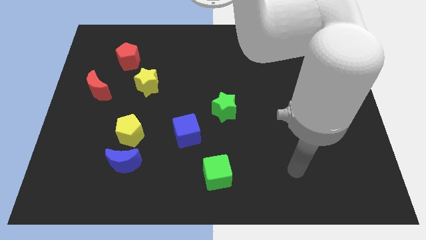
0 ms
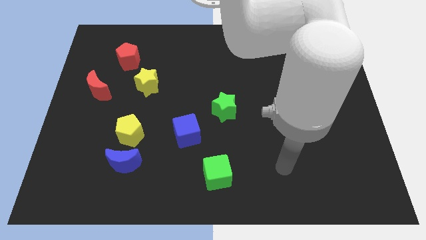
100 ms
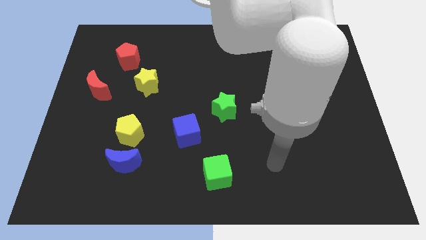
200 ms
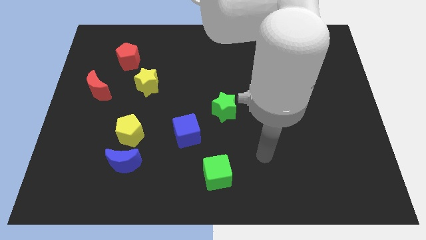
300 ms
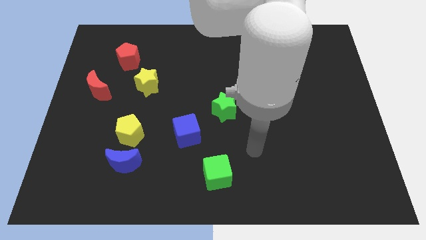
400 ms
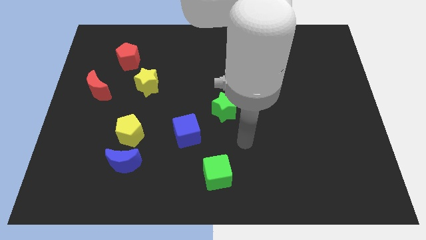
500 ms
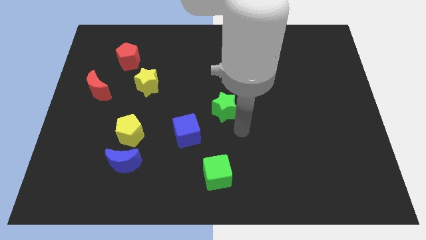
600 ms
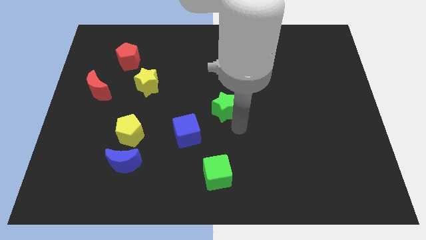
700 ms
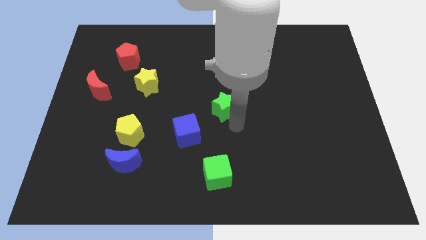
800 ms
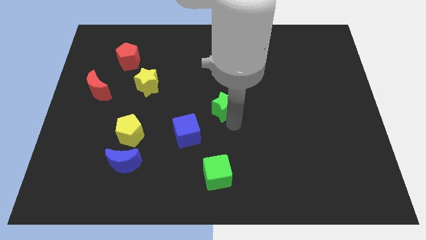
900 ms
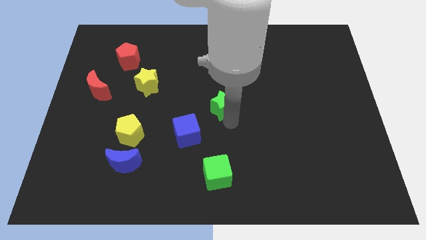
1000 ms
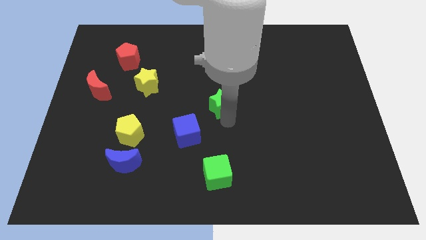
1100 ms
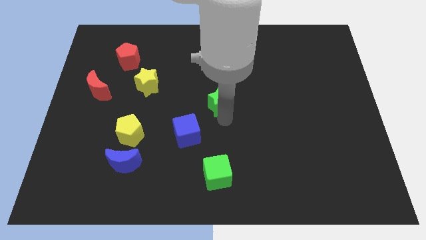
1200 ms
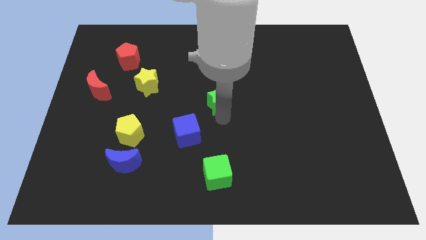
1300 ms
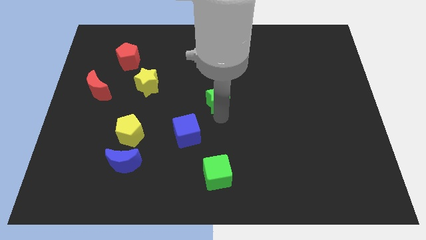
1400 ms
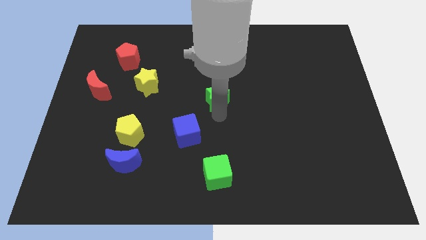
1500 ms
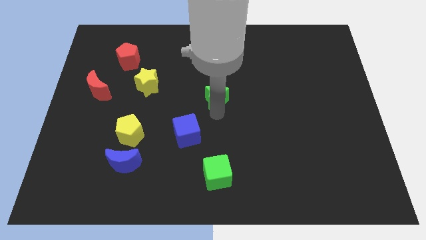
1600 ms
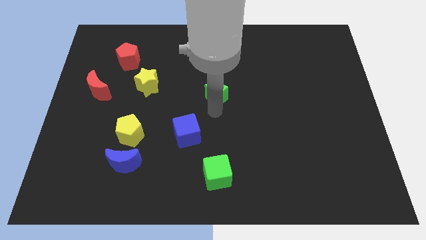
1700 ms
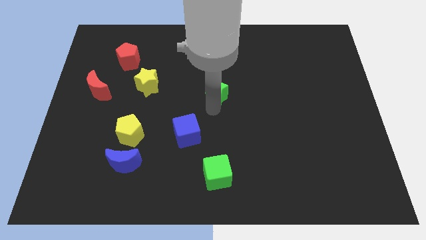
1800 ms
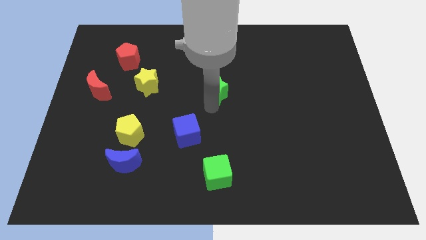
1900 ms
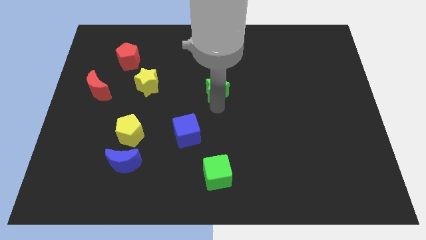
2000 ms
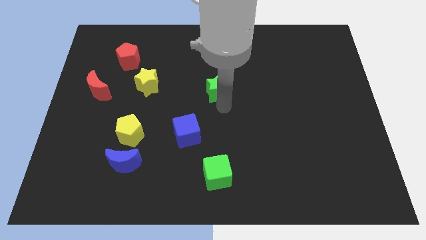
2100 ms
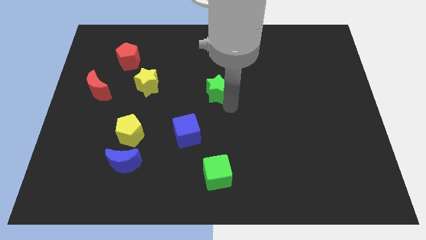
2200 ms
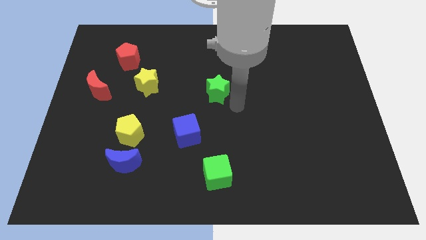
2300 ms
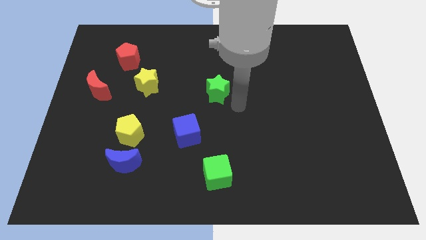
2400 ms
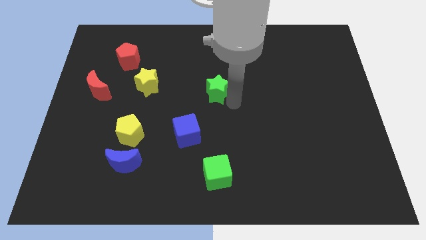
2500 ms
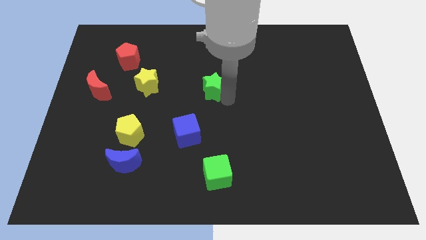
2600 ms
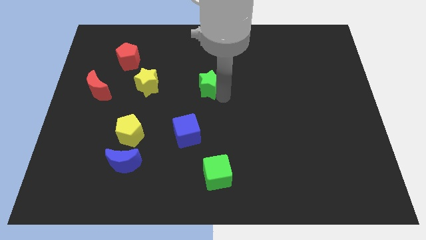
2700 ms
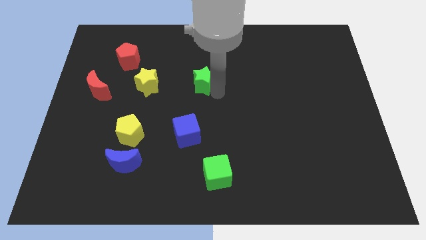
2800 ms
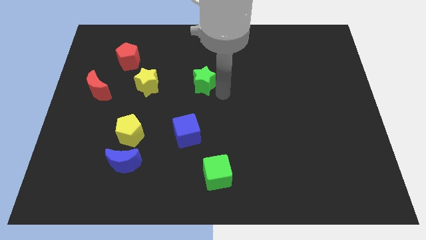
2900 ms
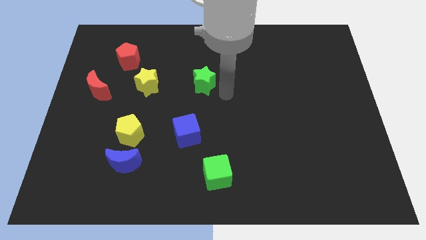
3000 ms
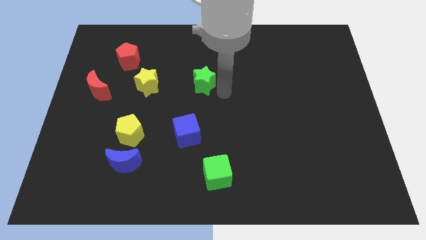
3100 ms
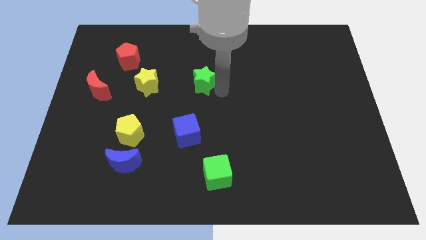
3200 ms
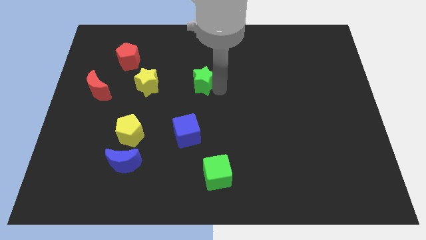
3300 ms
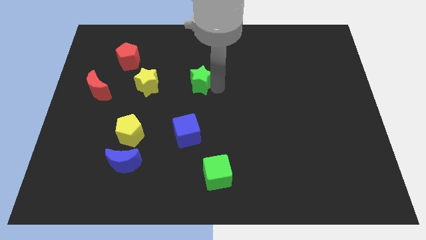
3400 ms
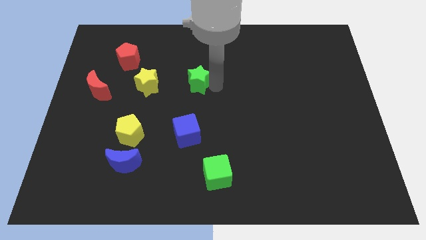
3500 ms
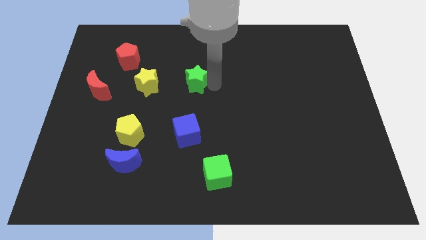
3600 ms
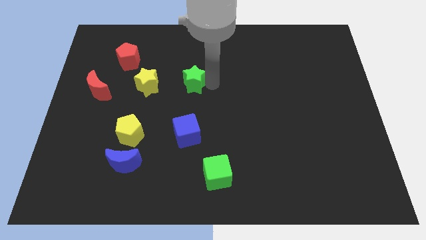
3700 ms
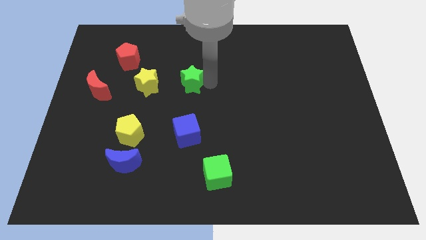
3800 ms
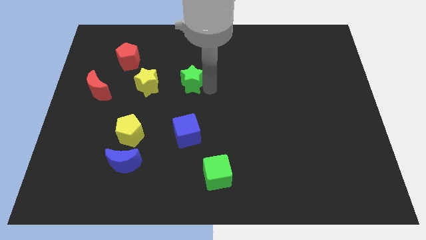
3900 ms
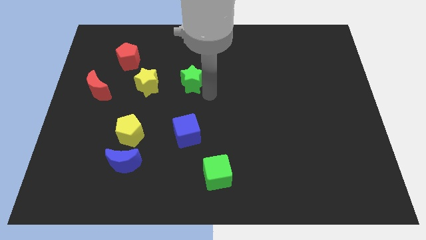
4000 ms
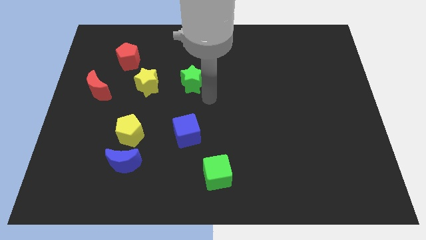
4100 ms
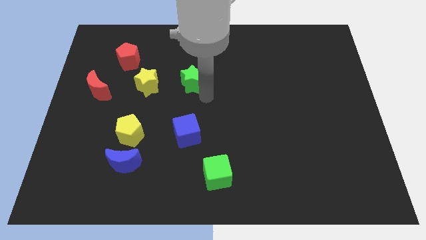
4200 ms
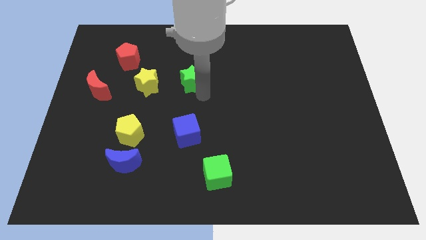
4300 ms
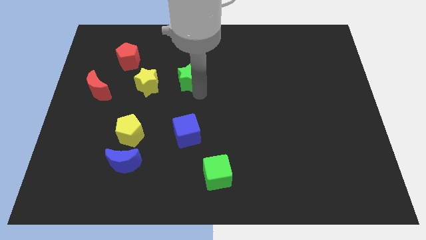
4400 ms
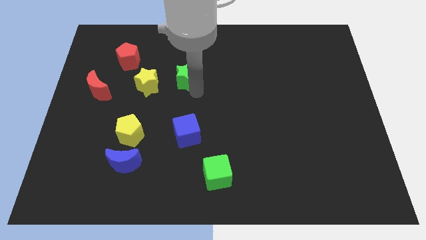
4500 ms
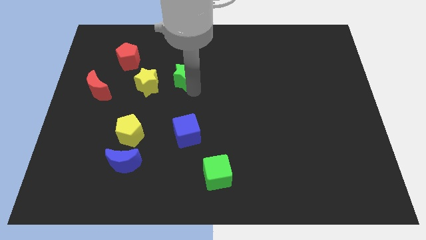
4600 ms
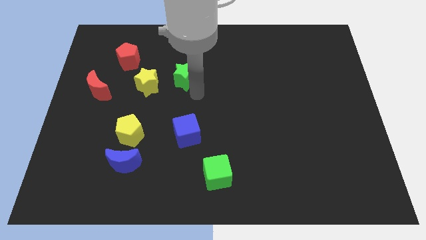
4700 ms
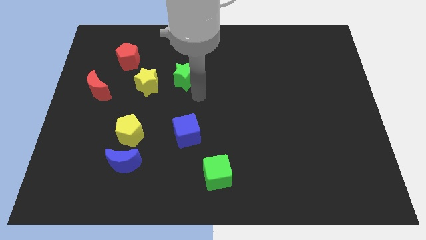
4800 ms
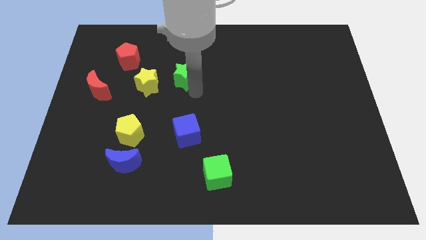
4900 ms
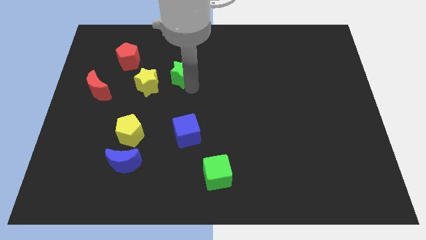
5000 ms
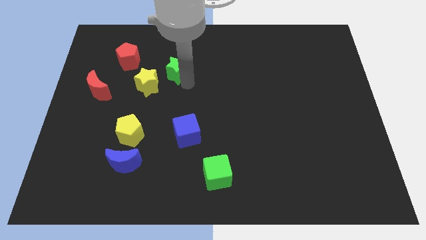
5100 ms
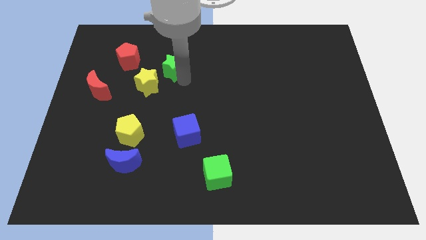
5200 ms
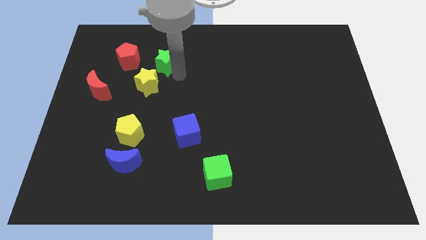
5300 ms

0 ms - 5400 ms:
push the green star to the top side of the yellow star

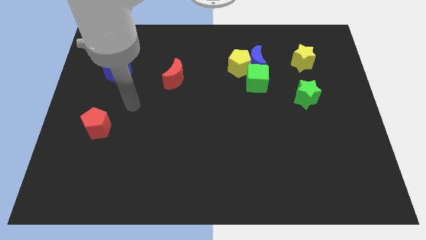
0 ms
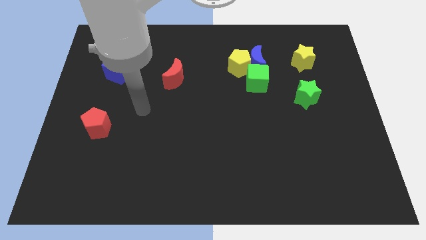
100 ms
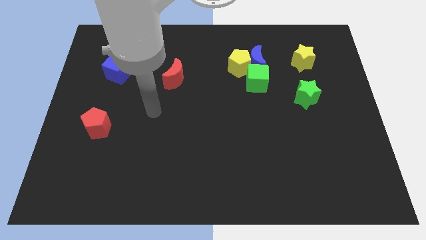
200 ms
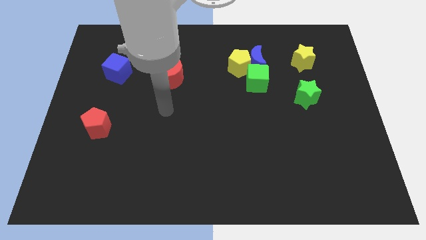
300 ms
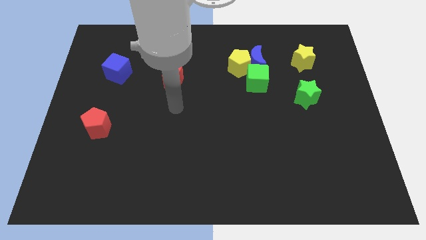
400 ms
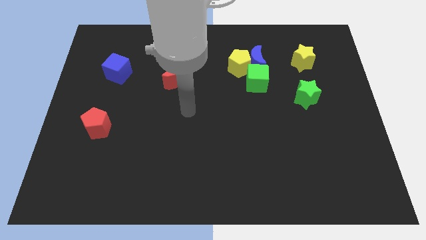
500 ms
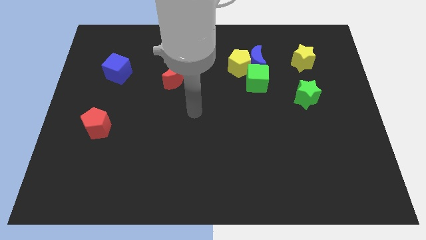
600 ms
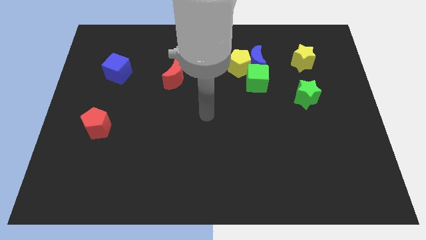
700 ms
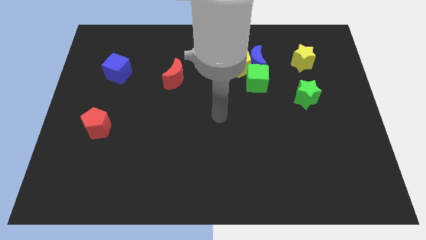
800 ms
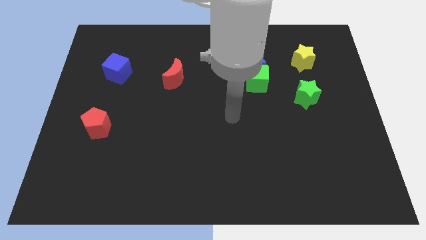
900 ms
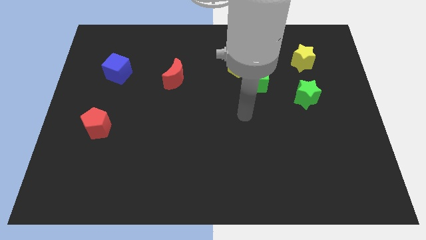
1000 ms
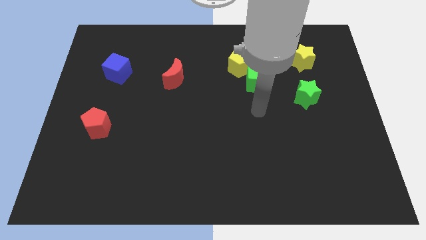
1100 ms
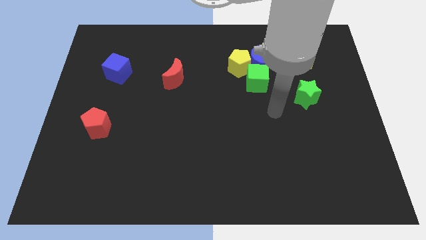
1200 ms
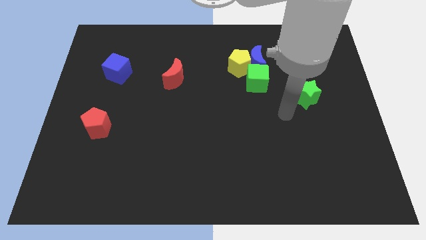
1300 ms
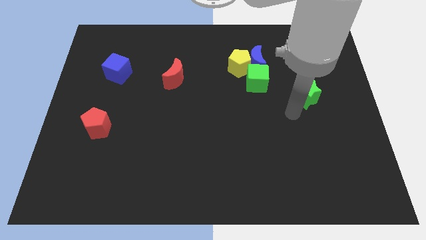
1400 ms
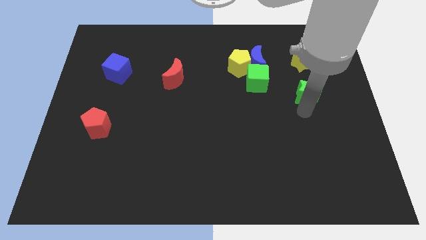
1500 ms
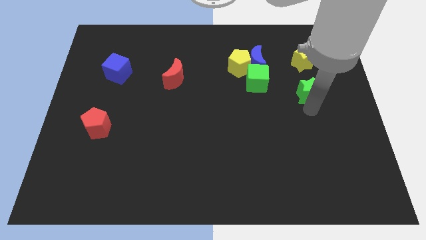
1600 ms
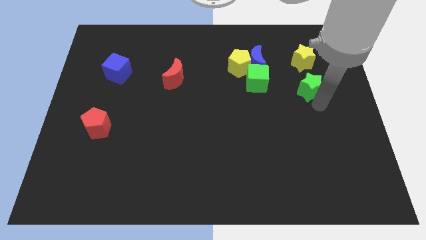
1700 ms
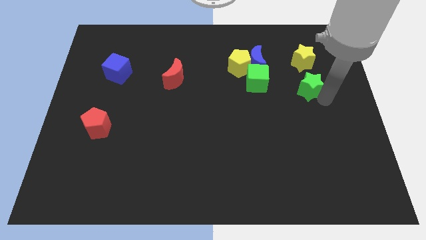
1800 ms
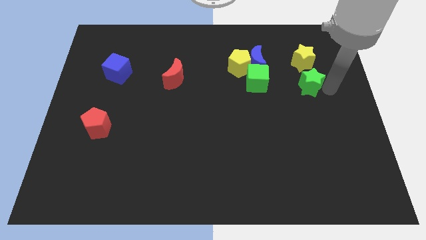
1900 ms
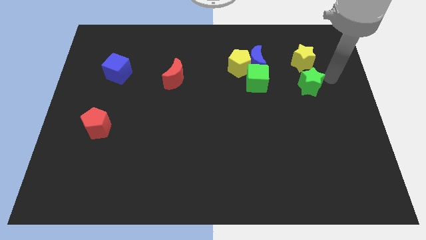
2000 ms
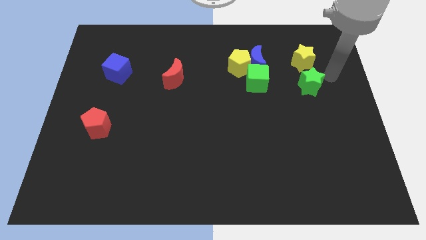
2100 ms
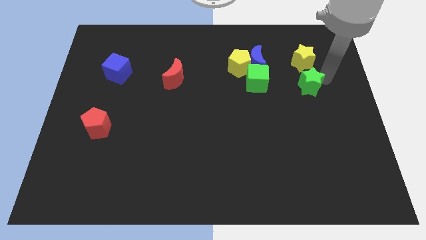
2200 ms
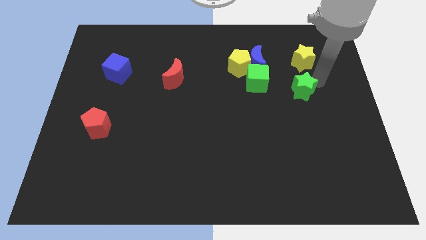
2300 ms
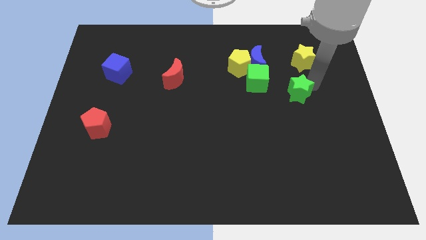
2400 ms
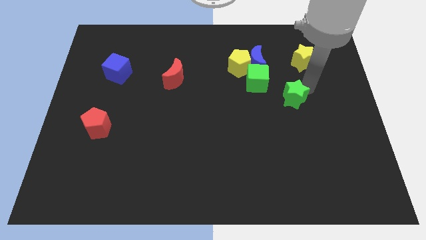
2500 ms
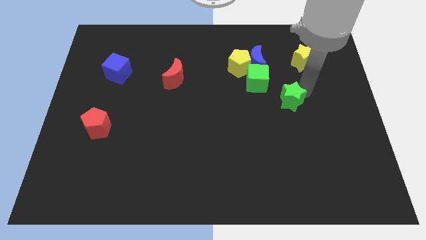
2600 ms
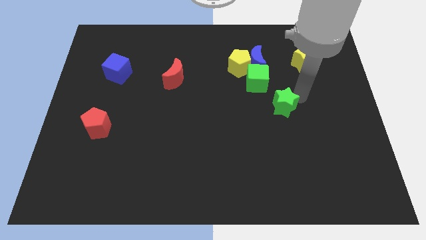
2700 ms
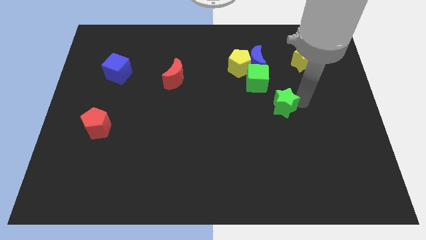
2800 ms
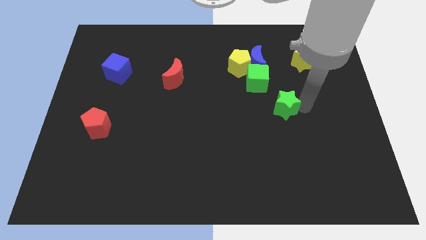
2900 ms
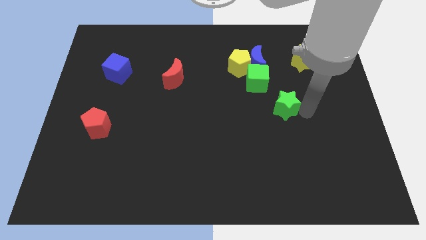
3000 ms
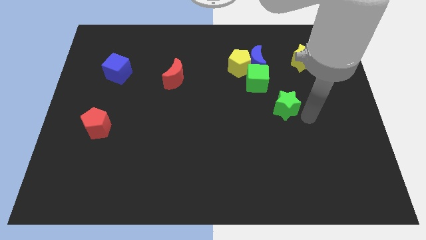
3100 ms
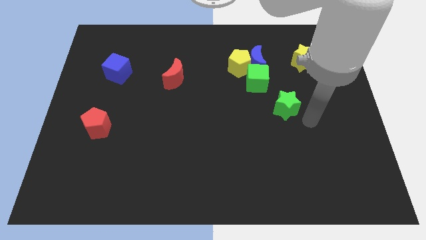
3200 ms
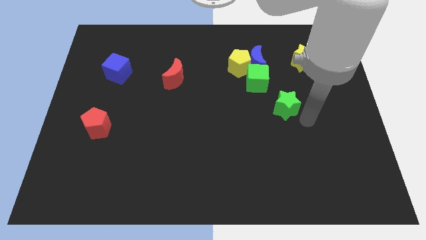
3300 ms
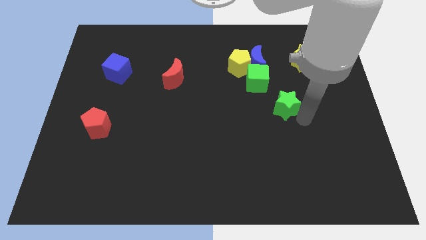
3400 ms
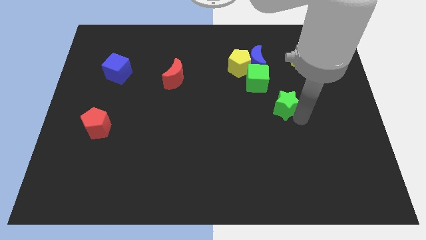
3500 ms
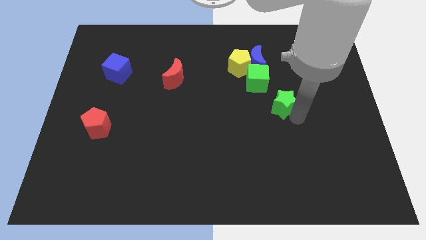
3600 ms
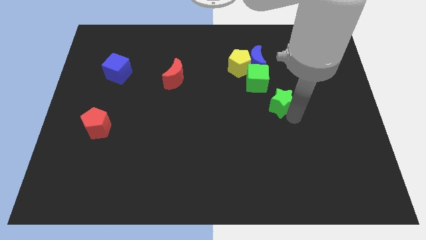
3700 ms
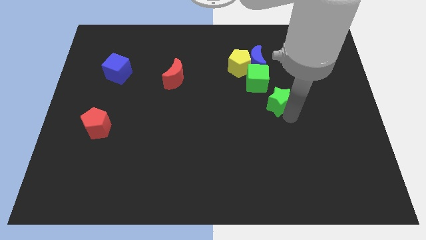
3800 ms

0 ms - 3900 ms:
put the green star to the bottom of the blue moon
